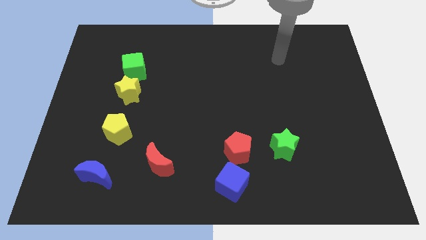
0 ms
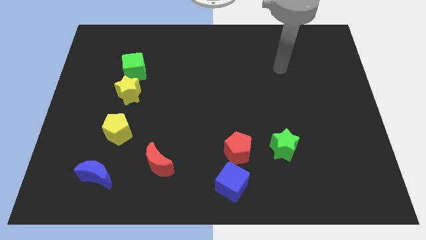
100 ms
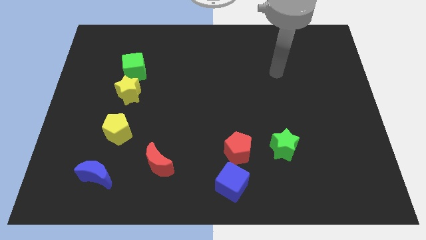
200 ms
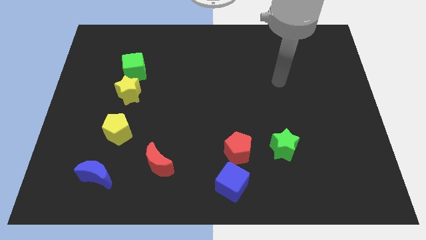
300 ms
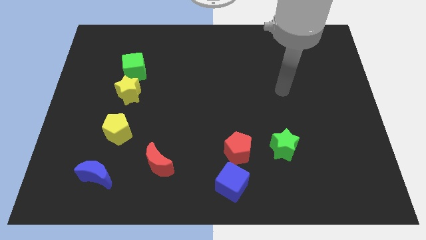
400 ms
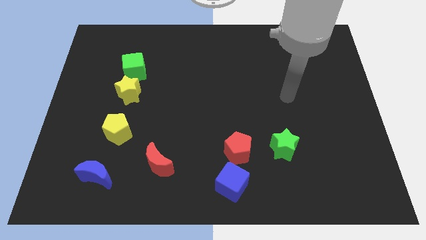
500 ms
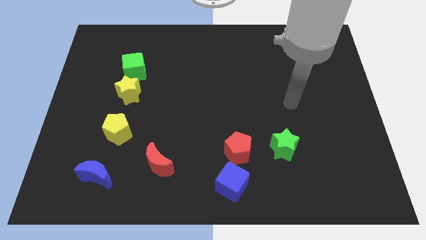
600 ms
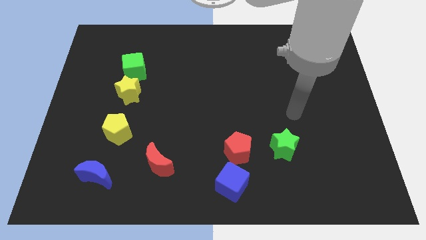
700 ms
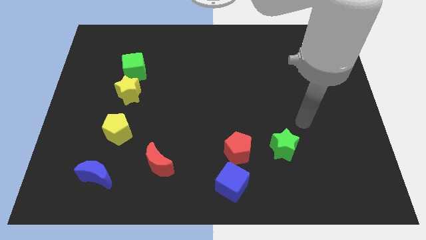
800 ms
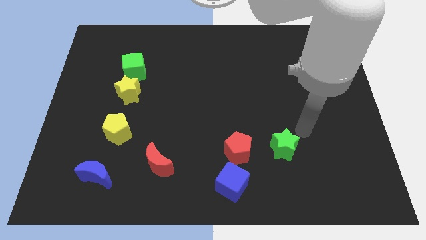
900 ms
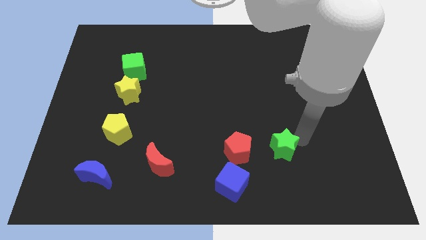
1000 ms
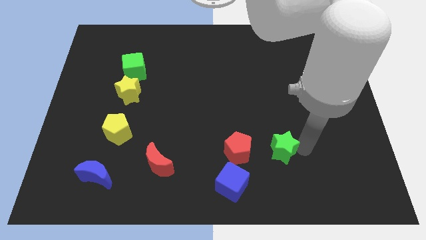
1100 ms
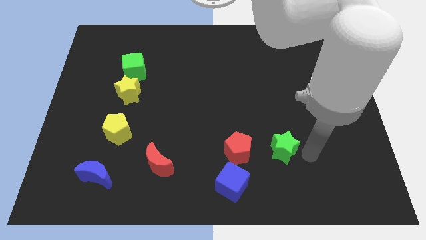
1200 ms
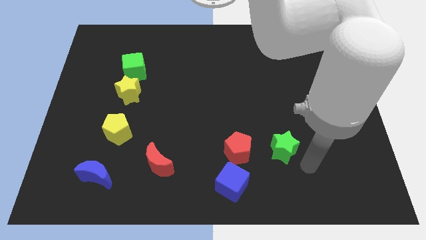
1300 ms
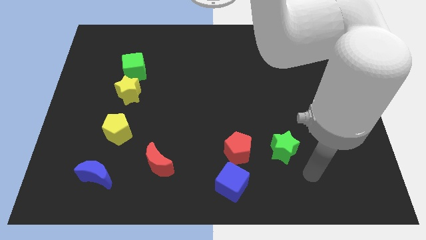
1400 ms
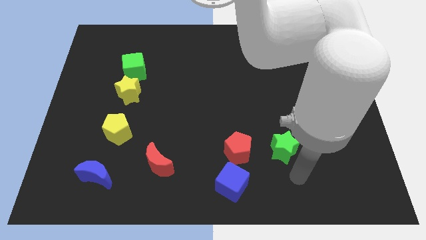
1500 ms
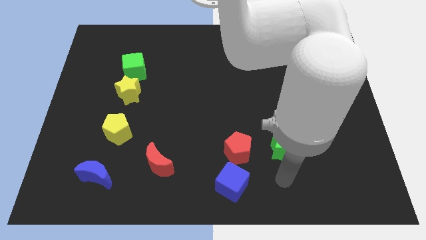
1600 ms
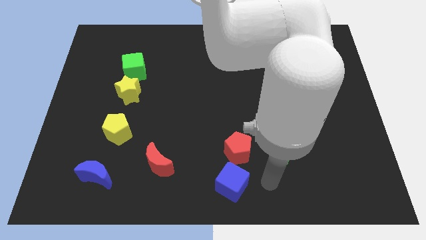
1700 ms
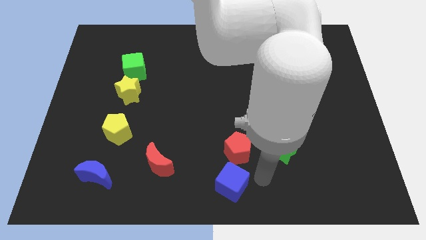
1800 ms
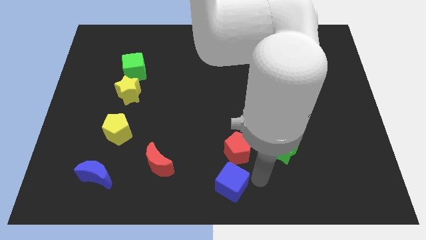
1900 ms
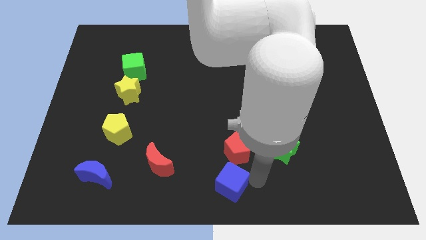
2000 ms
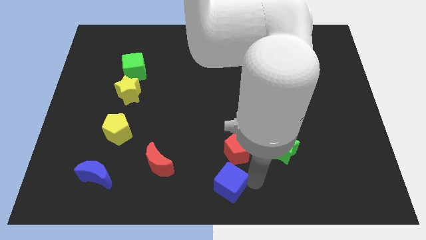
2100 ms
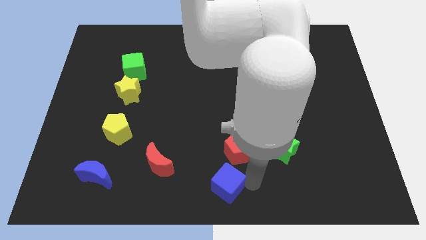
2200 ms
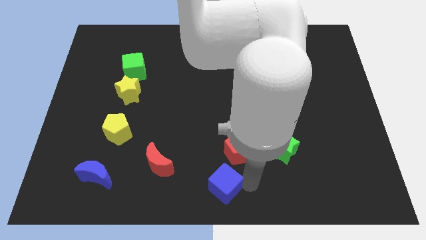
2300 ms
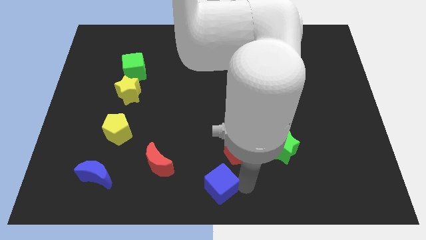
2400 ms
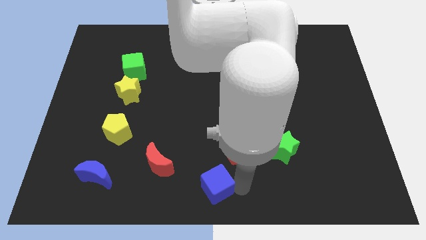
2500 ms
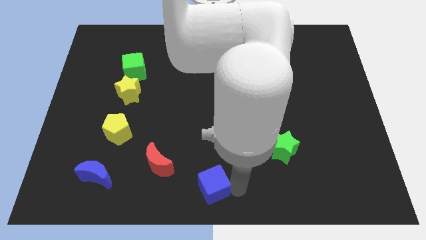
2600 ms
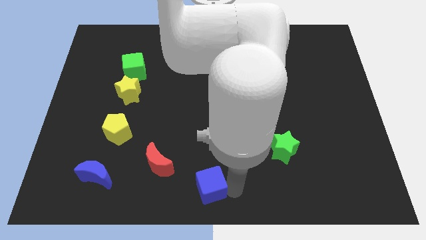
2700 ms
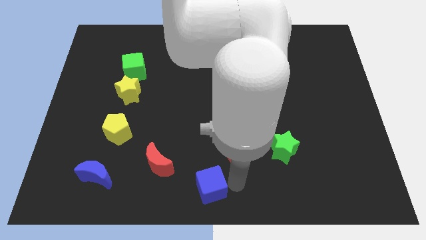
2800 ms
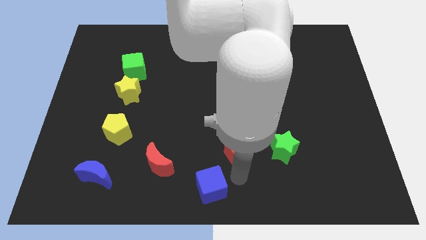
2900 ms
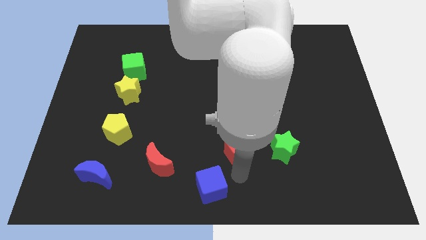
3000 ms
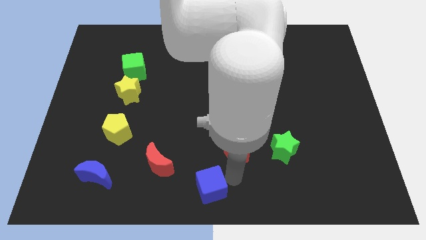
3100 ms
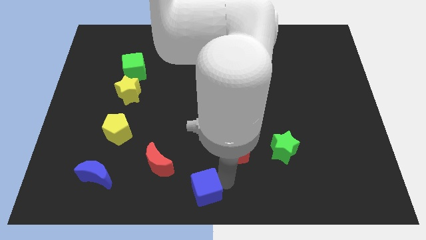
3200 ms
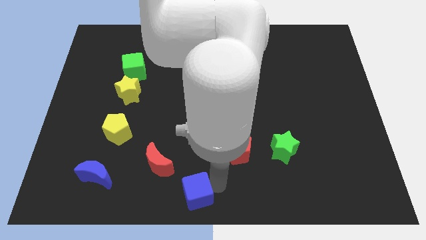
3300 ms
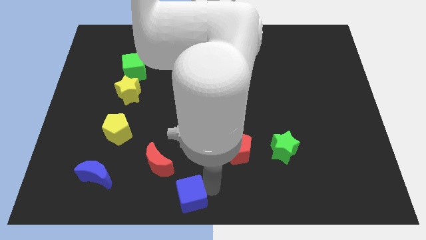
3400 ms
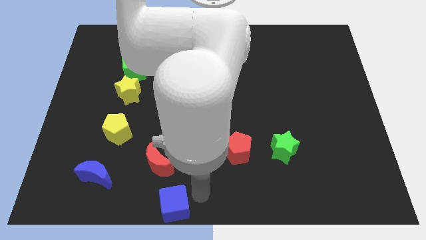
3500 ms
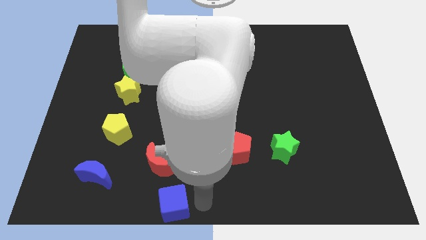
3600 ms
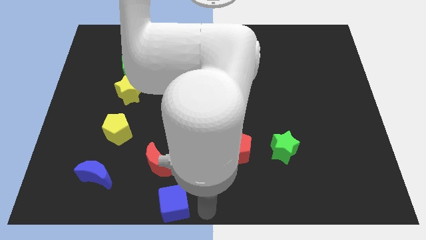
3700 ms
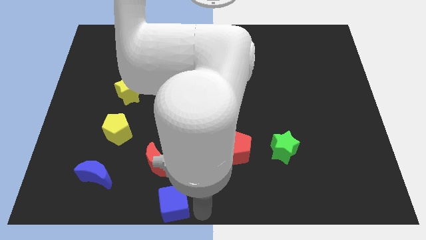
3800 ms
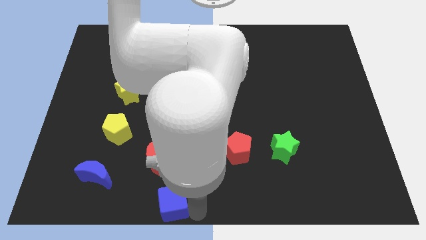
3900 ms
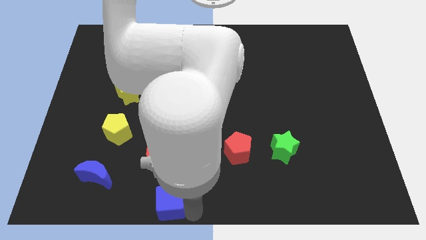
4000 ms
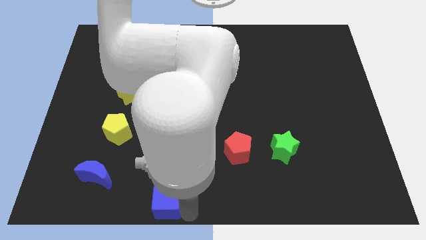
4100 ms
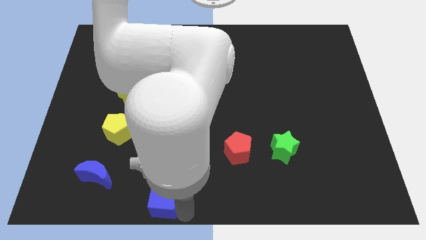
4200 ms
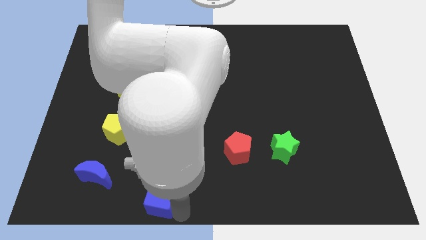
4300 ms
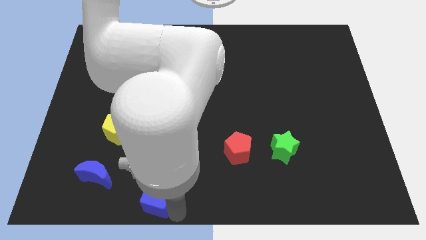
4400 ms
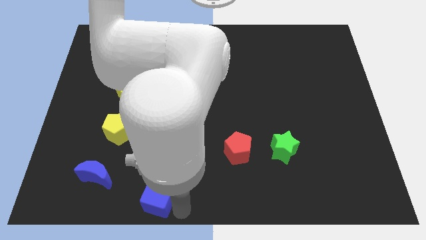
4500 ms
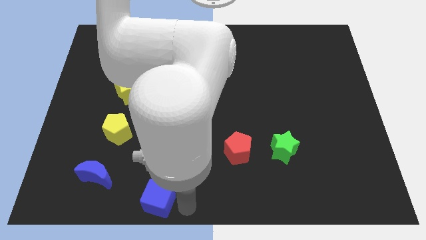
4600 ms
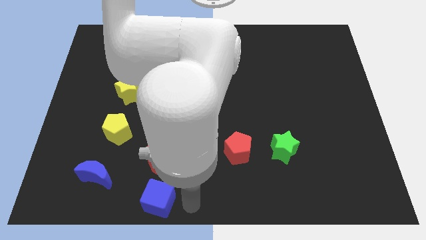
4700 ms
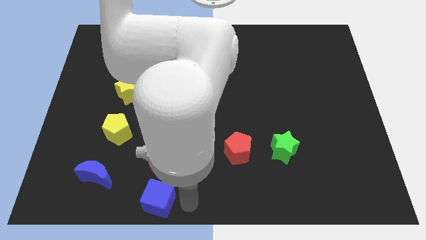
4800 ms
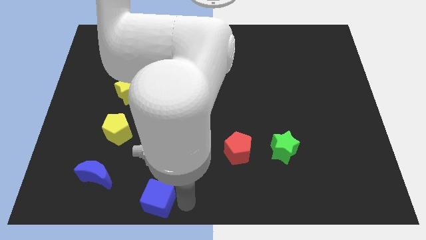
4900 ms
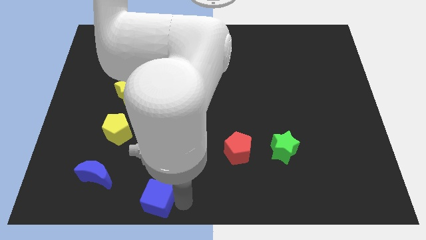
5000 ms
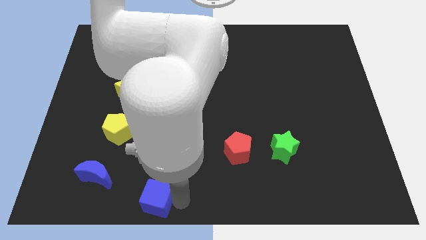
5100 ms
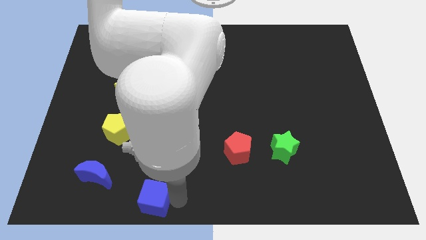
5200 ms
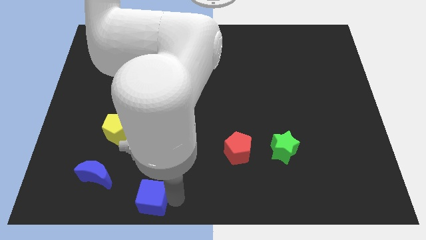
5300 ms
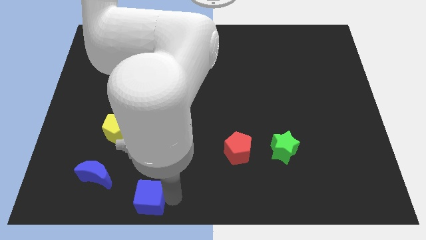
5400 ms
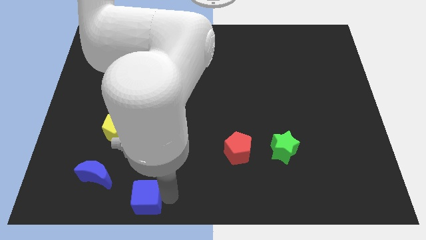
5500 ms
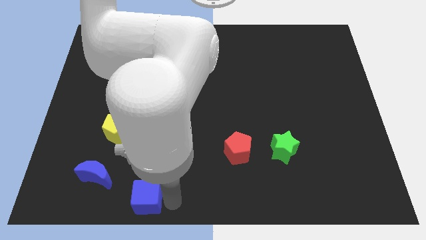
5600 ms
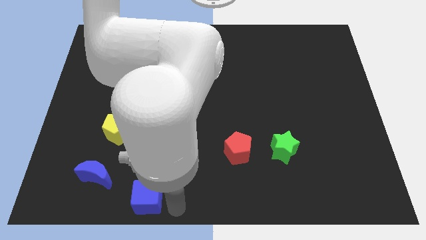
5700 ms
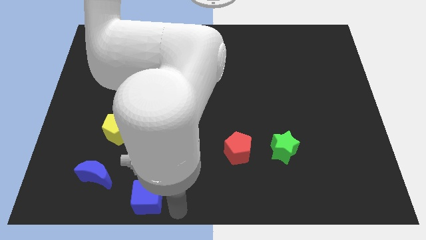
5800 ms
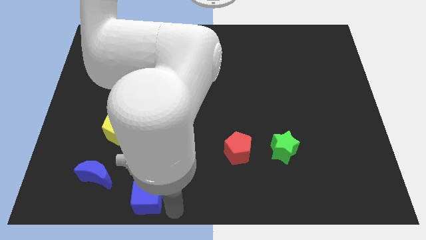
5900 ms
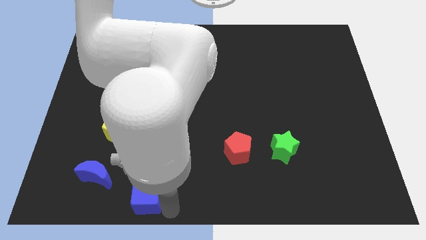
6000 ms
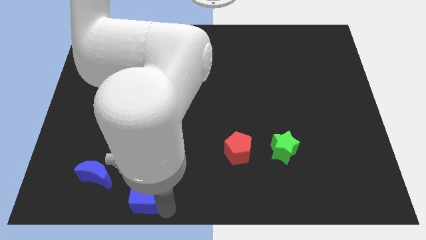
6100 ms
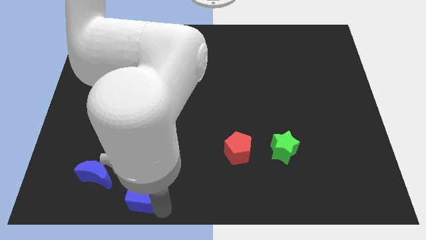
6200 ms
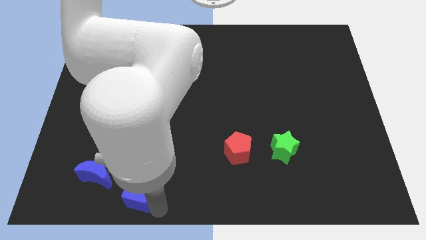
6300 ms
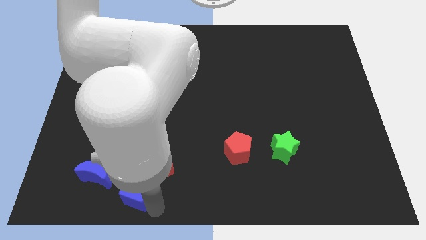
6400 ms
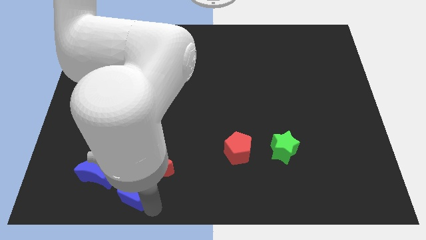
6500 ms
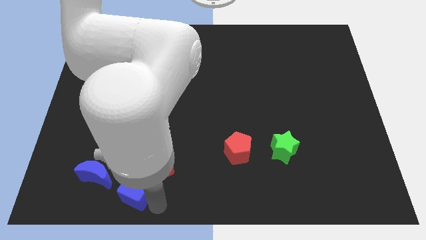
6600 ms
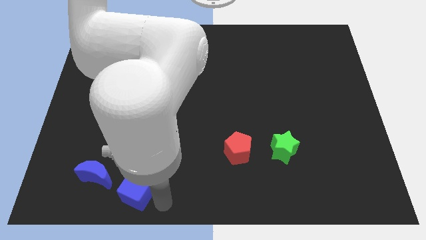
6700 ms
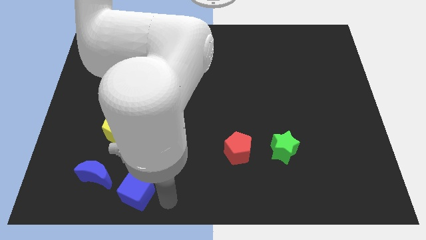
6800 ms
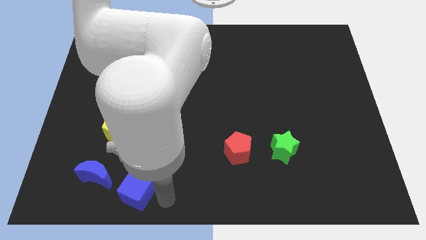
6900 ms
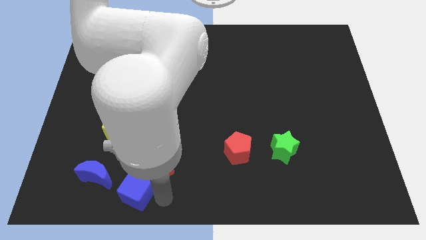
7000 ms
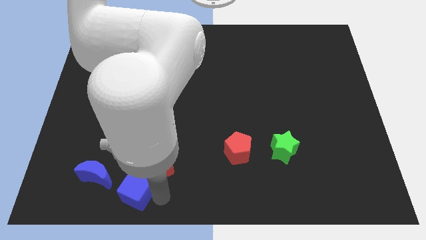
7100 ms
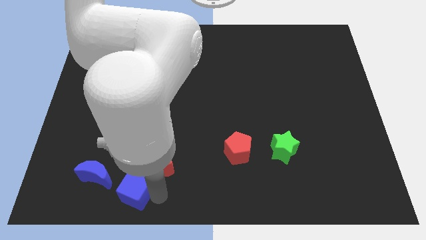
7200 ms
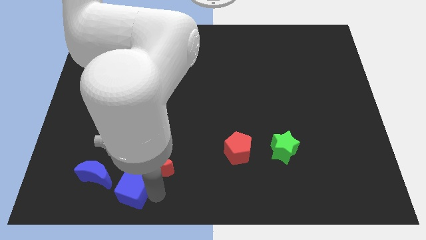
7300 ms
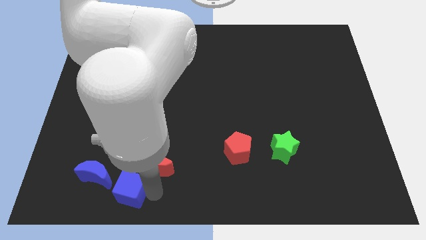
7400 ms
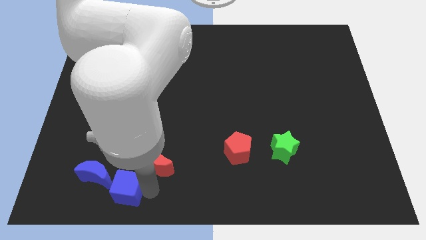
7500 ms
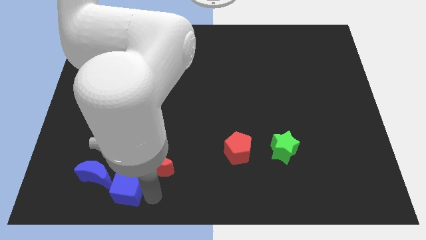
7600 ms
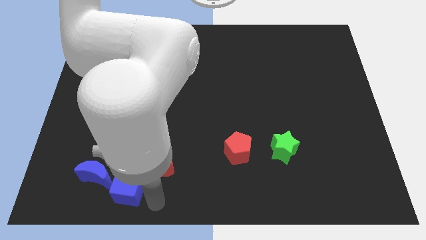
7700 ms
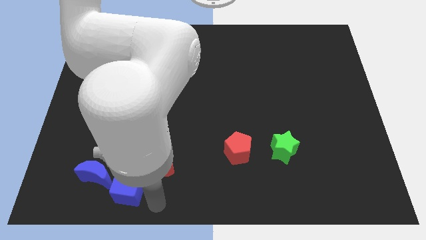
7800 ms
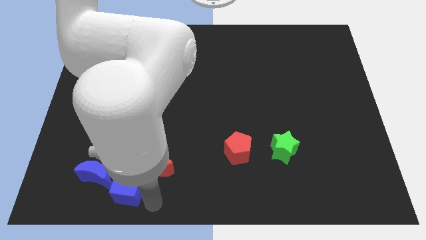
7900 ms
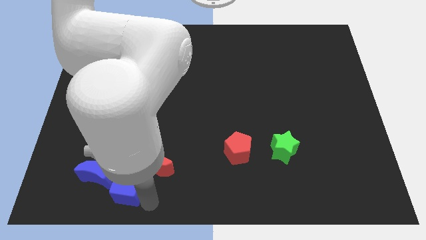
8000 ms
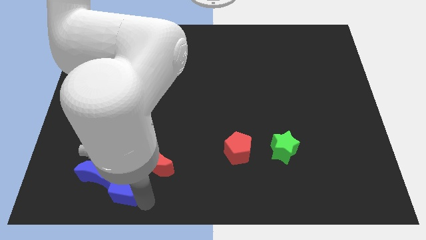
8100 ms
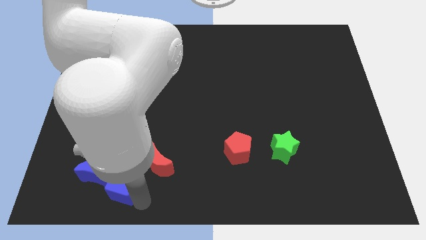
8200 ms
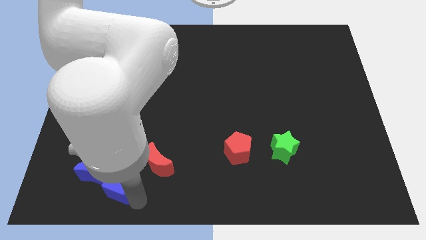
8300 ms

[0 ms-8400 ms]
push the blue cube close to the blue moon
